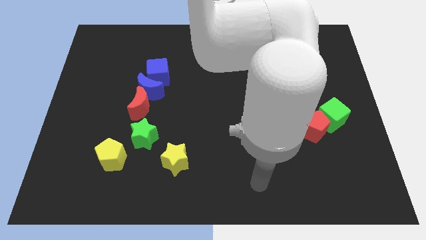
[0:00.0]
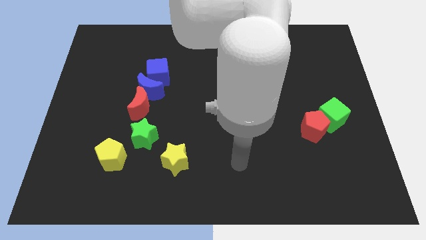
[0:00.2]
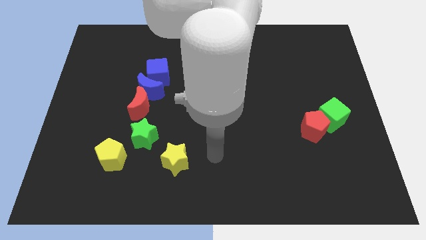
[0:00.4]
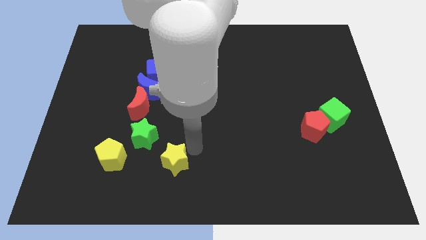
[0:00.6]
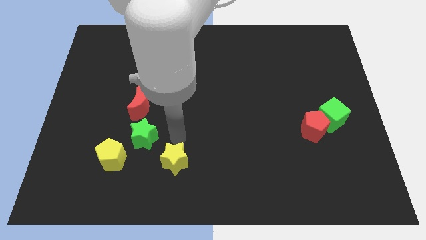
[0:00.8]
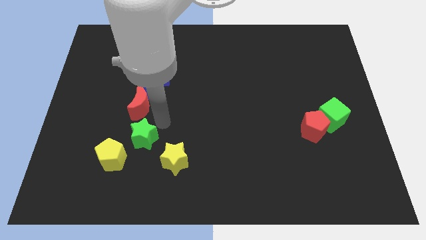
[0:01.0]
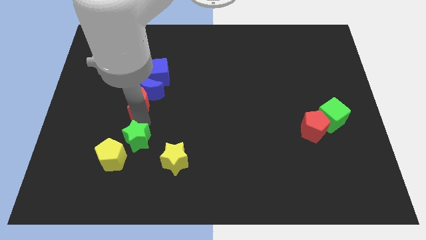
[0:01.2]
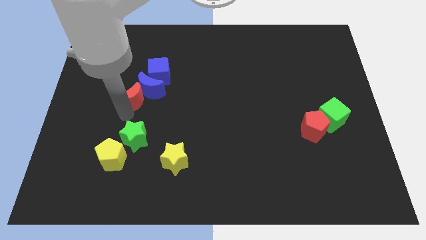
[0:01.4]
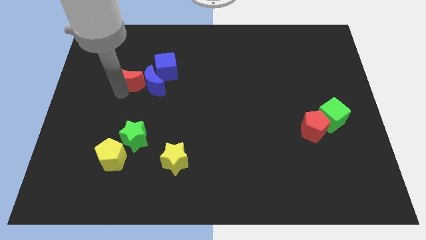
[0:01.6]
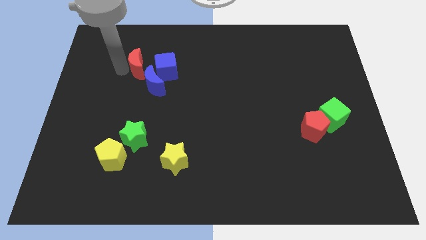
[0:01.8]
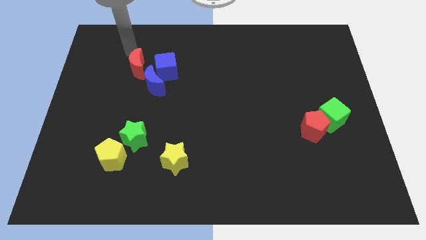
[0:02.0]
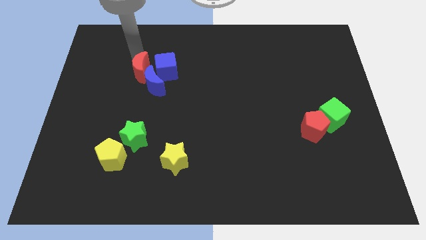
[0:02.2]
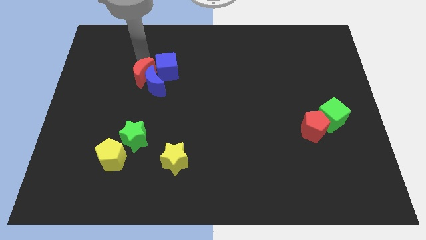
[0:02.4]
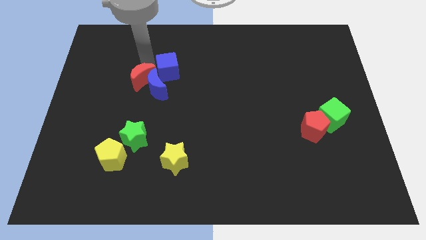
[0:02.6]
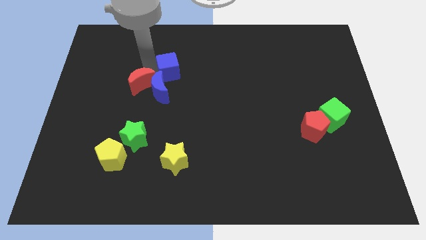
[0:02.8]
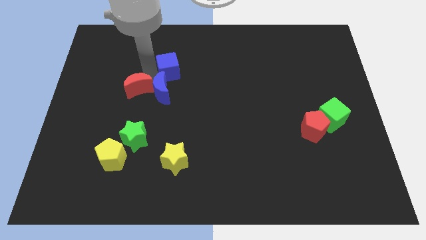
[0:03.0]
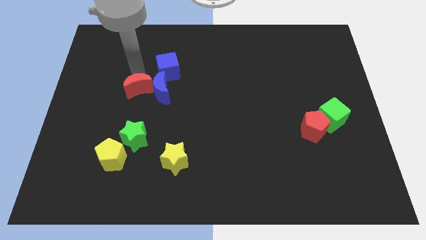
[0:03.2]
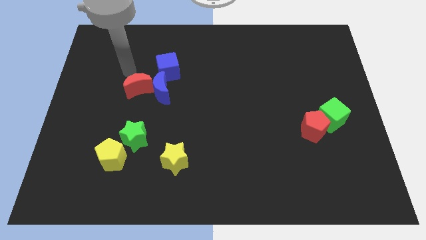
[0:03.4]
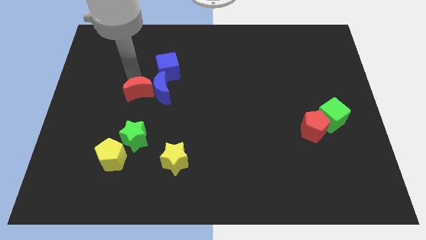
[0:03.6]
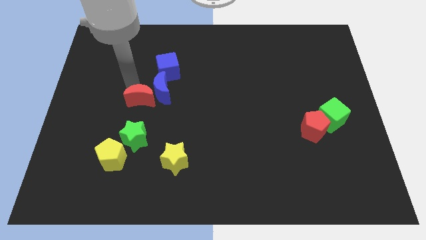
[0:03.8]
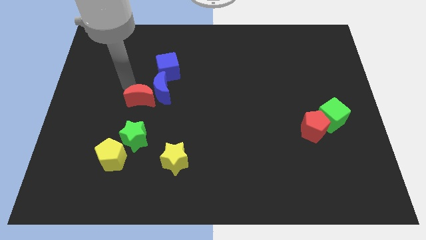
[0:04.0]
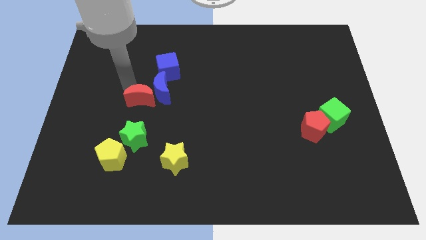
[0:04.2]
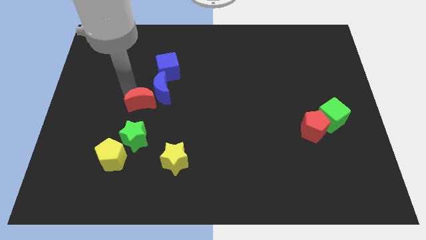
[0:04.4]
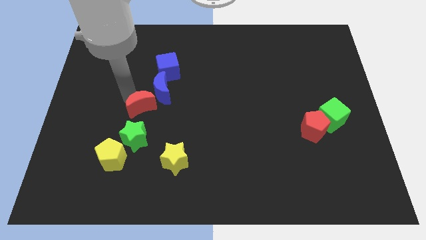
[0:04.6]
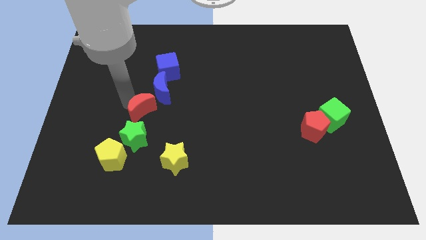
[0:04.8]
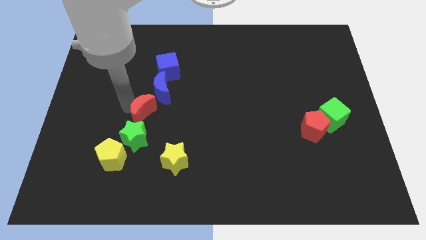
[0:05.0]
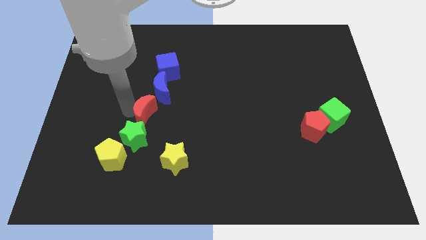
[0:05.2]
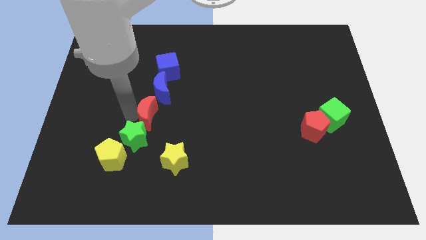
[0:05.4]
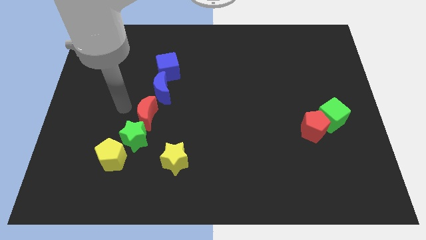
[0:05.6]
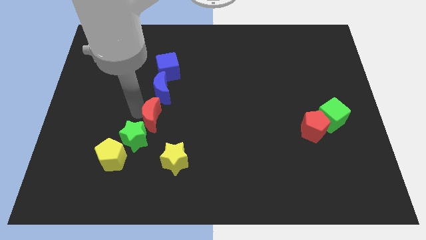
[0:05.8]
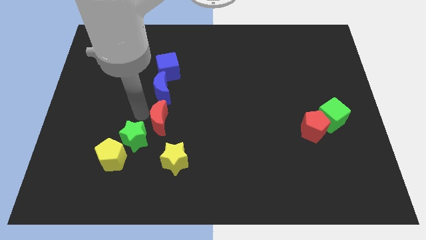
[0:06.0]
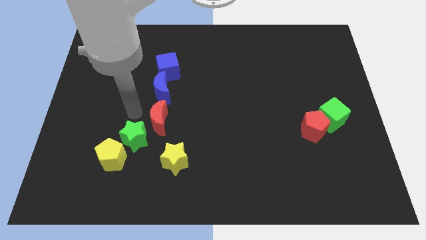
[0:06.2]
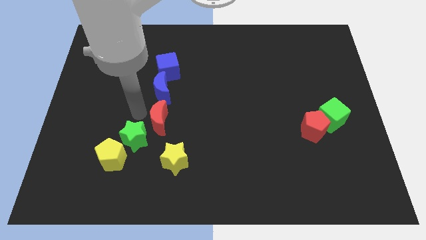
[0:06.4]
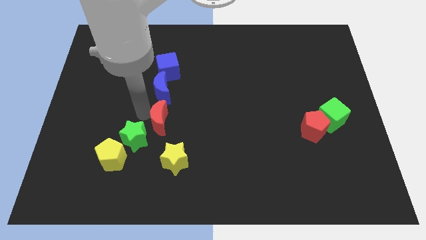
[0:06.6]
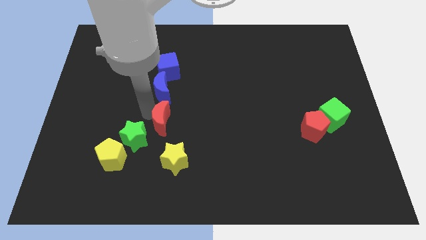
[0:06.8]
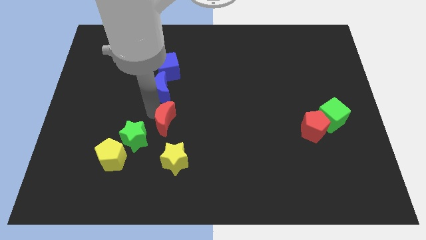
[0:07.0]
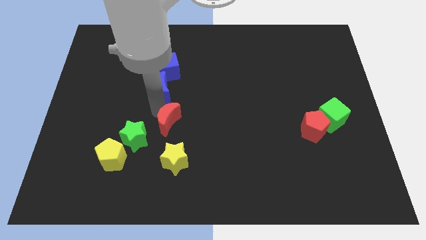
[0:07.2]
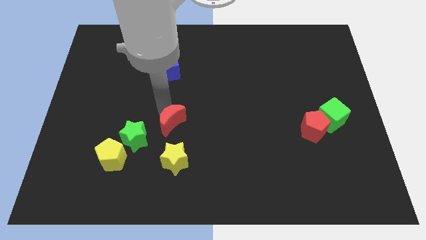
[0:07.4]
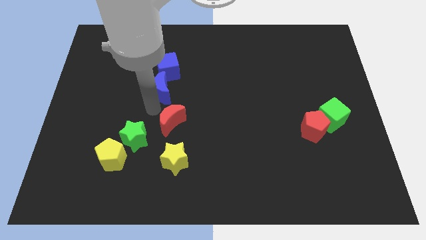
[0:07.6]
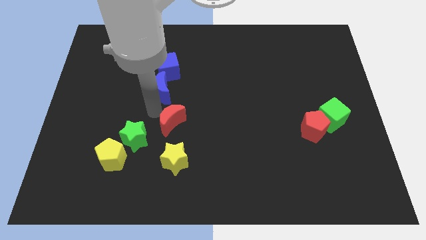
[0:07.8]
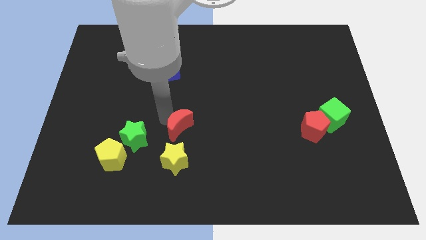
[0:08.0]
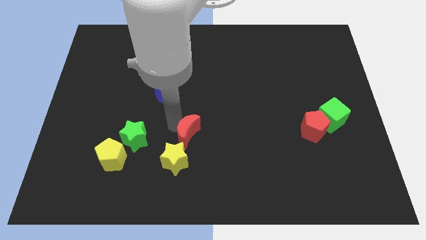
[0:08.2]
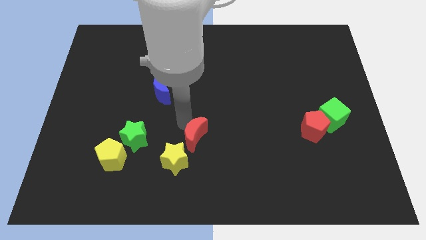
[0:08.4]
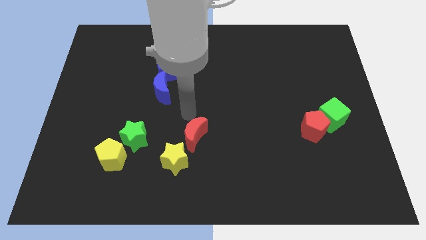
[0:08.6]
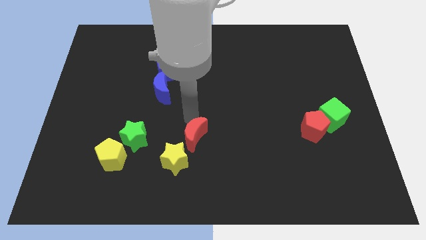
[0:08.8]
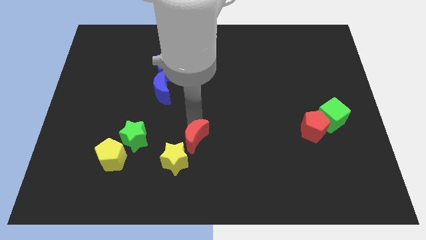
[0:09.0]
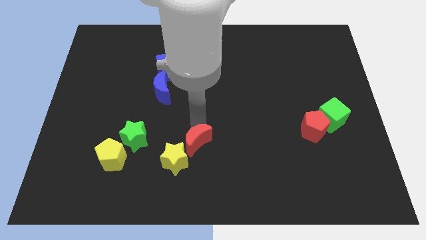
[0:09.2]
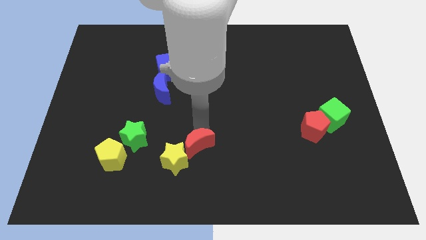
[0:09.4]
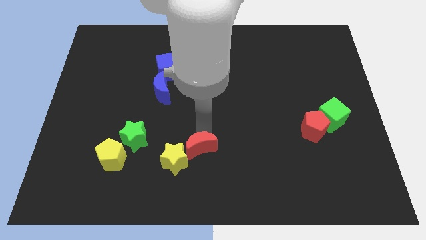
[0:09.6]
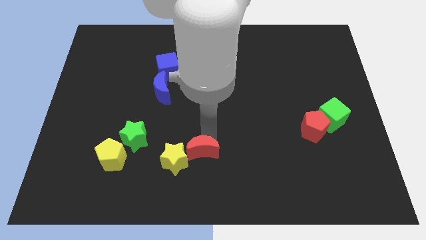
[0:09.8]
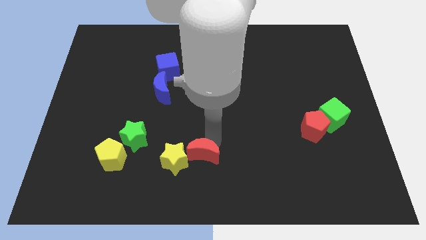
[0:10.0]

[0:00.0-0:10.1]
slide the red moon to the bottom

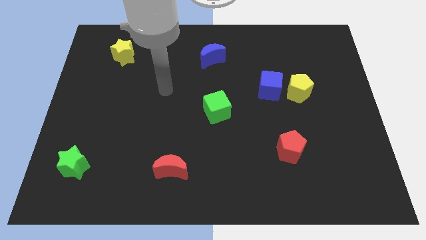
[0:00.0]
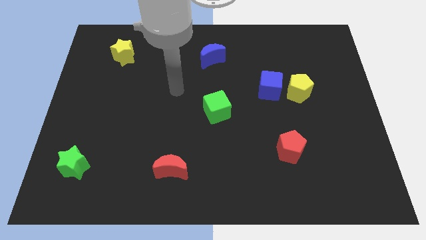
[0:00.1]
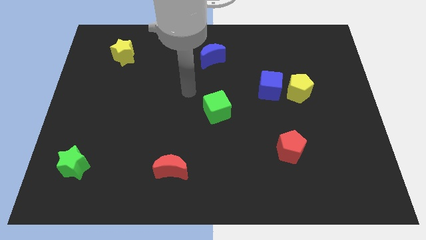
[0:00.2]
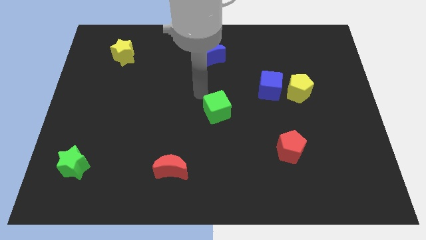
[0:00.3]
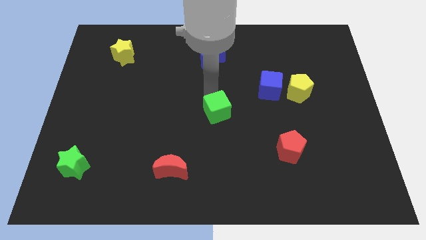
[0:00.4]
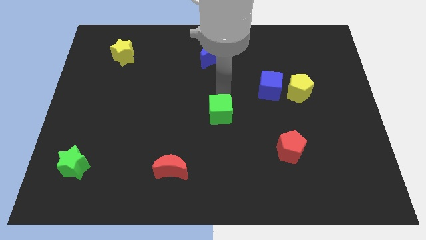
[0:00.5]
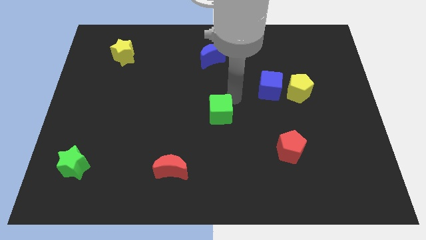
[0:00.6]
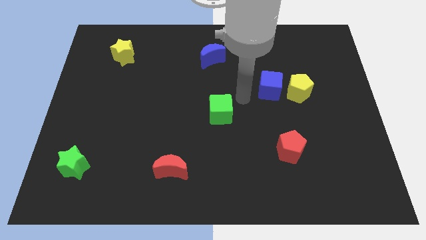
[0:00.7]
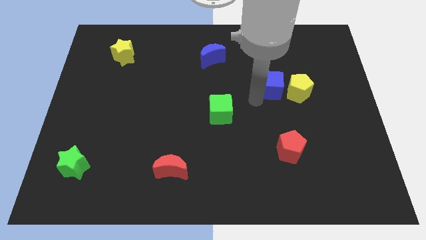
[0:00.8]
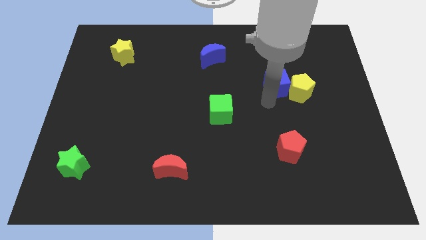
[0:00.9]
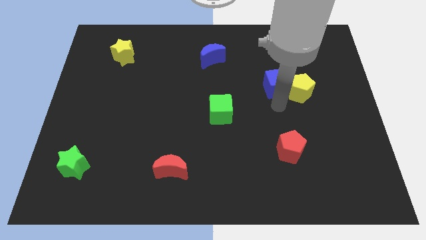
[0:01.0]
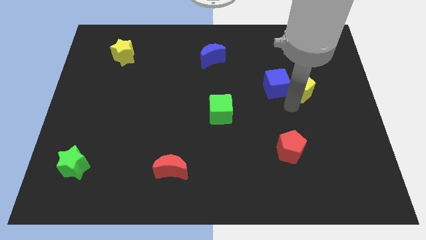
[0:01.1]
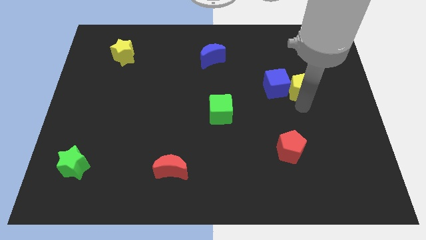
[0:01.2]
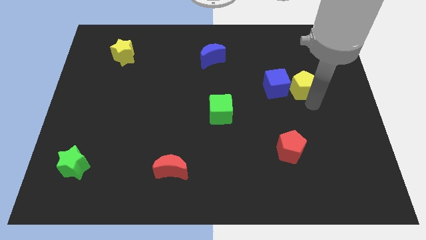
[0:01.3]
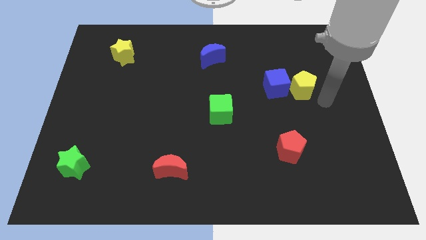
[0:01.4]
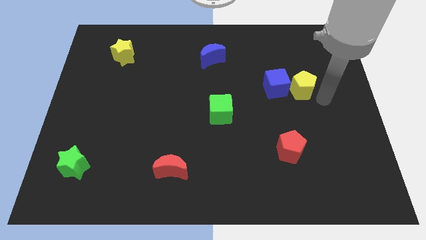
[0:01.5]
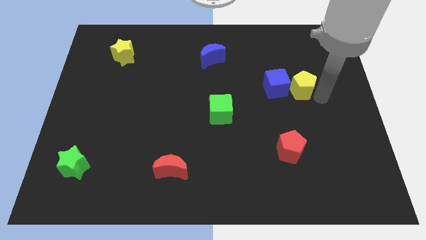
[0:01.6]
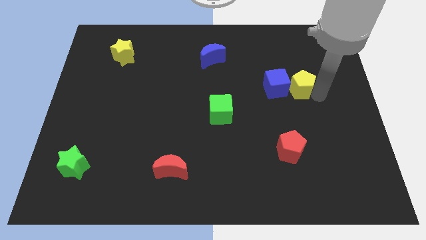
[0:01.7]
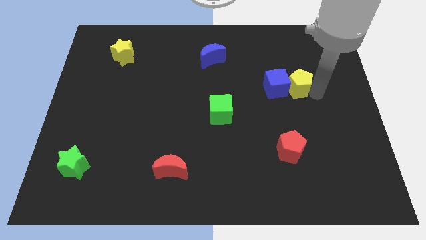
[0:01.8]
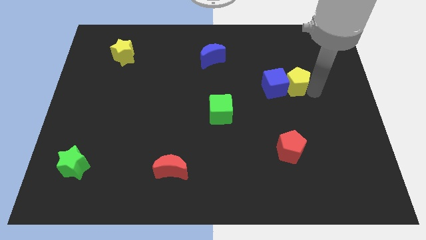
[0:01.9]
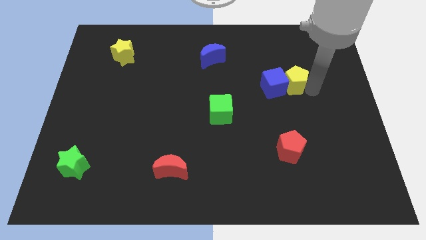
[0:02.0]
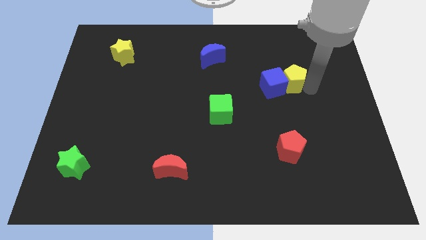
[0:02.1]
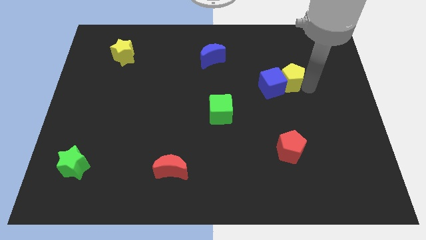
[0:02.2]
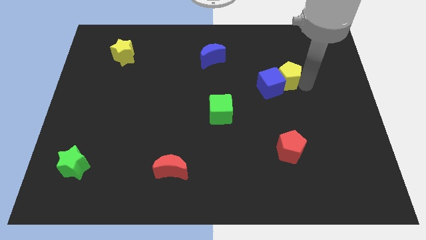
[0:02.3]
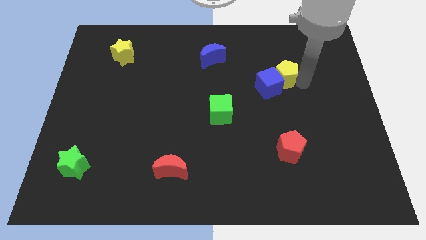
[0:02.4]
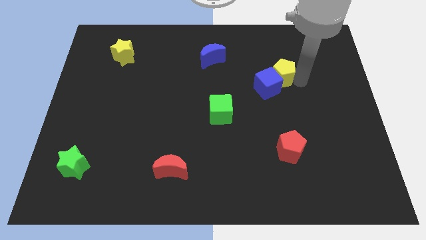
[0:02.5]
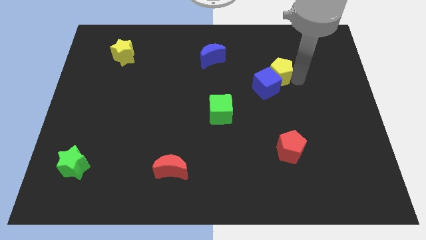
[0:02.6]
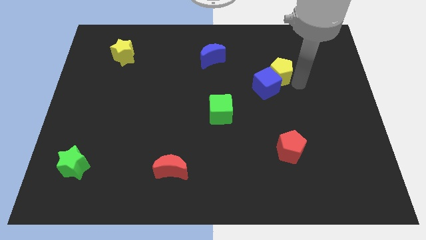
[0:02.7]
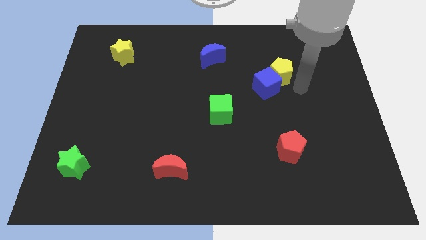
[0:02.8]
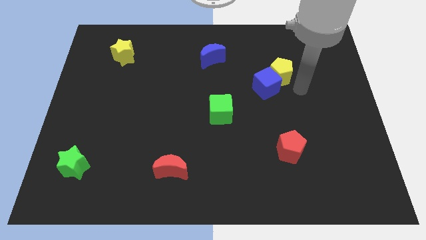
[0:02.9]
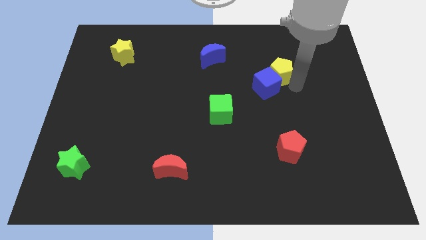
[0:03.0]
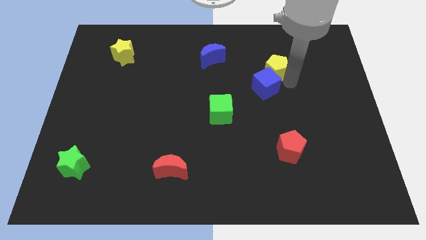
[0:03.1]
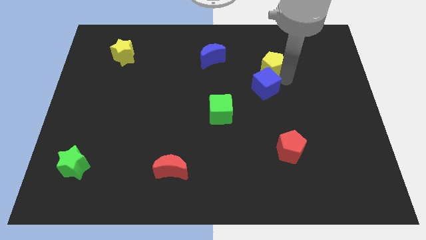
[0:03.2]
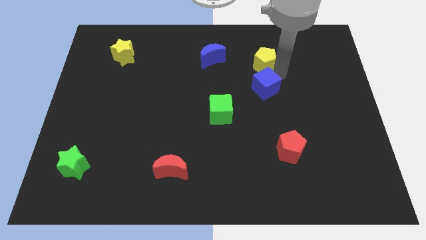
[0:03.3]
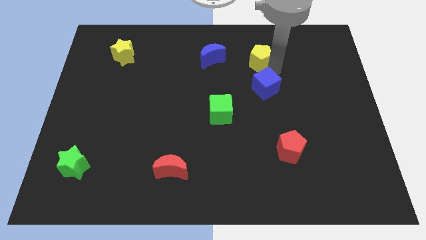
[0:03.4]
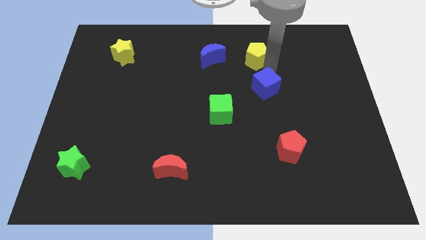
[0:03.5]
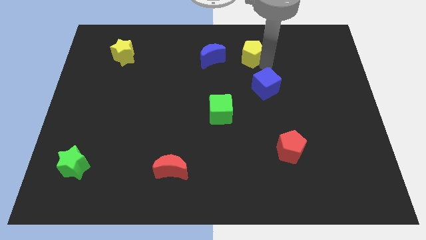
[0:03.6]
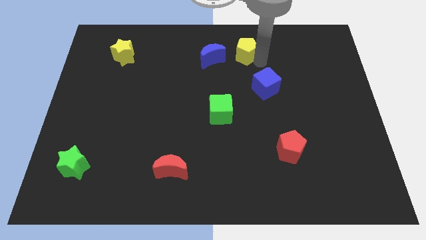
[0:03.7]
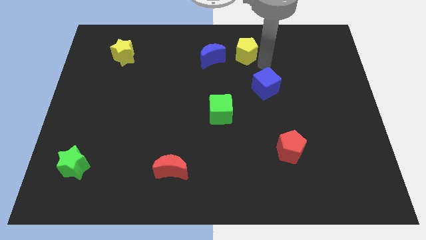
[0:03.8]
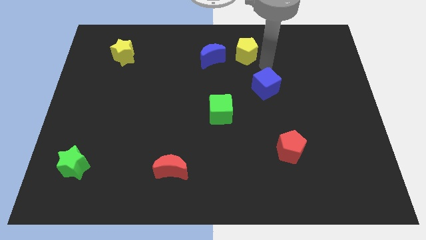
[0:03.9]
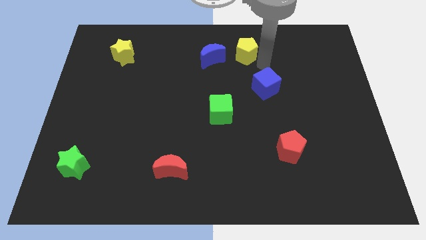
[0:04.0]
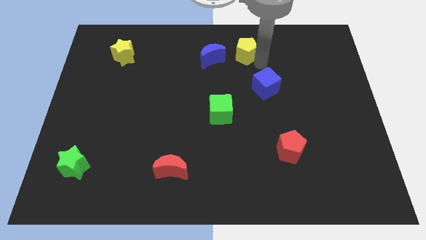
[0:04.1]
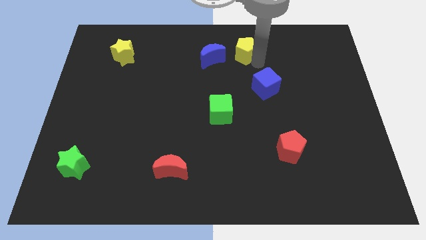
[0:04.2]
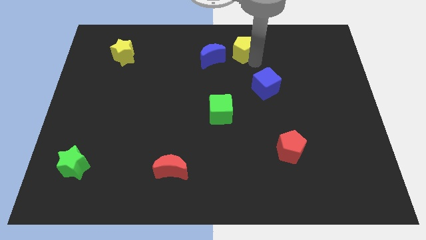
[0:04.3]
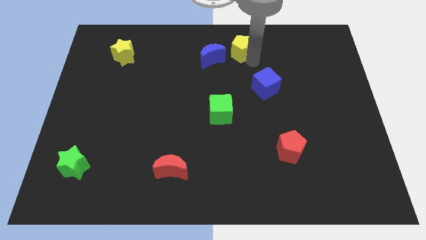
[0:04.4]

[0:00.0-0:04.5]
slide the yellow pentagon to the towards your base
